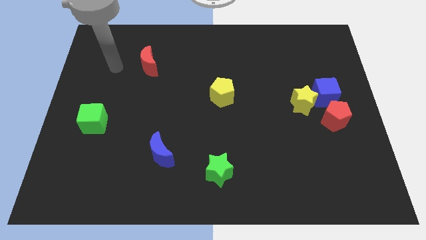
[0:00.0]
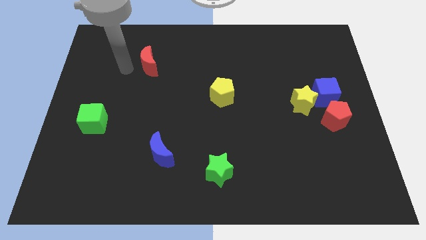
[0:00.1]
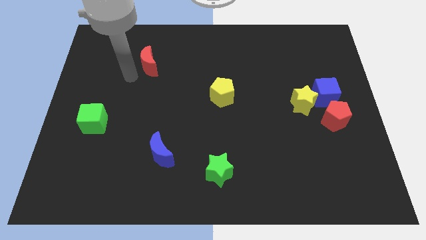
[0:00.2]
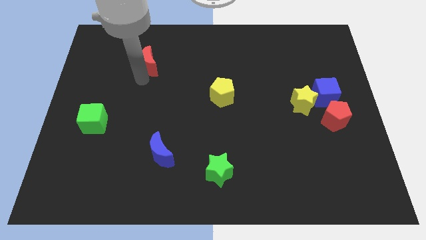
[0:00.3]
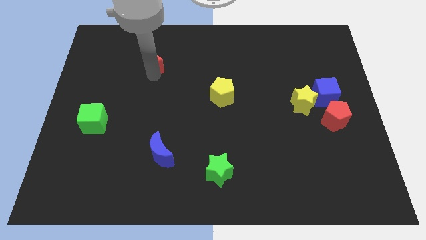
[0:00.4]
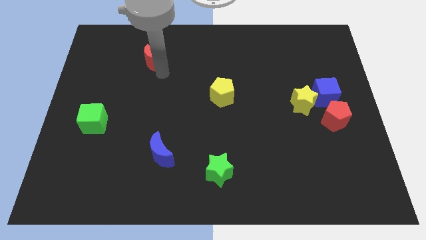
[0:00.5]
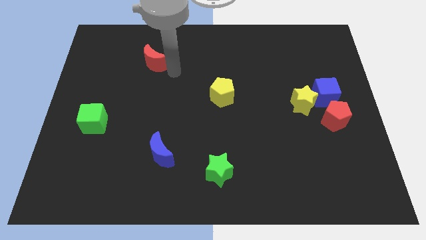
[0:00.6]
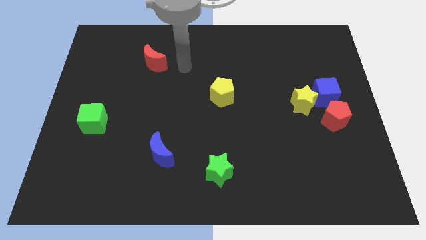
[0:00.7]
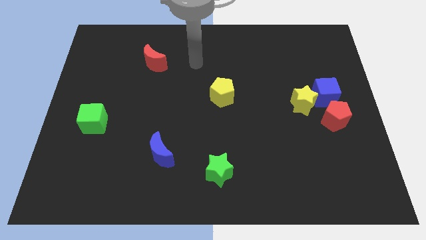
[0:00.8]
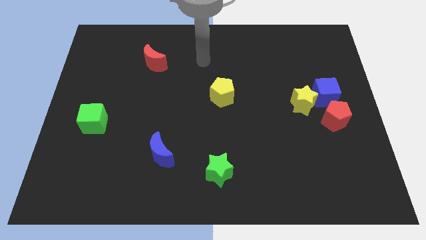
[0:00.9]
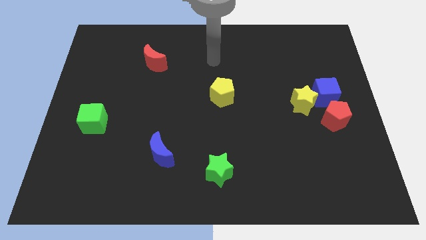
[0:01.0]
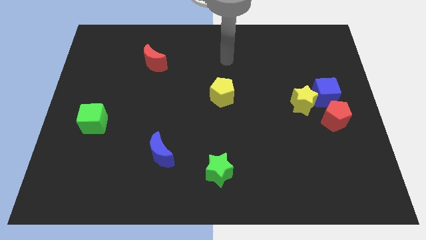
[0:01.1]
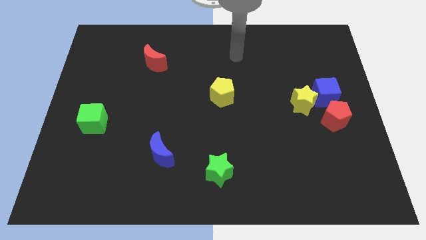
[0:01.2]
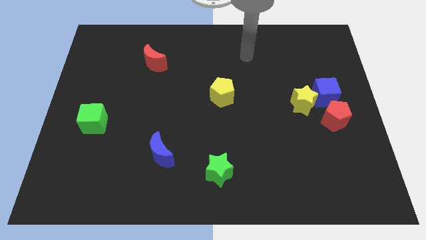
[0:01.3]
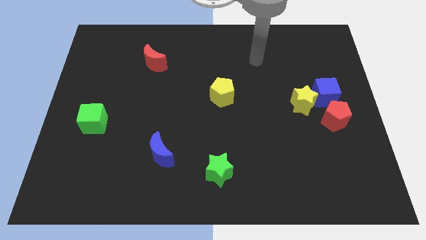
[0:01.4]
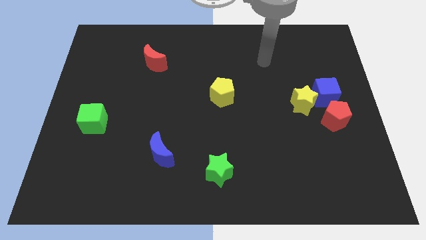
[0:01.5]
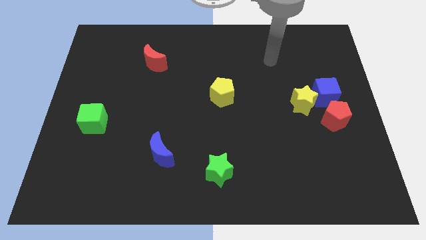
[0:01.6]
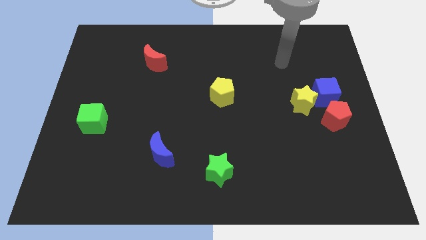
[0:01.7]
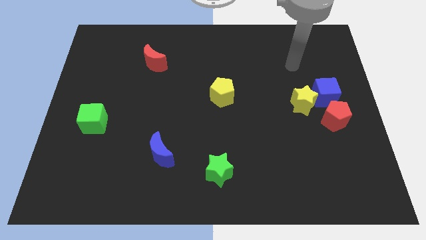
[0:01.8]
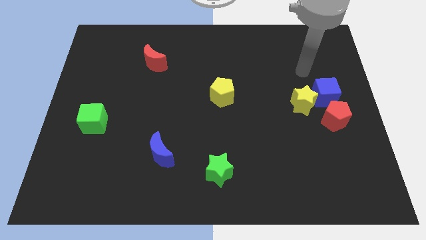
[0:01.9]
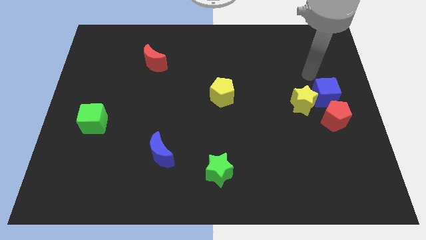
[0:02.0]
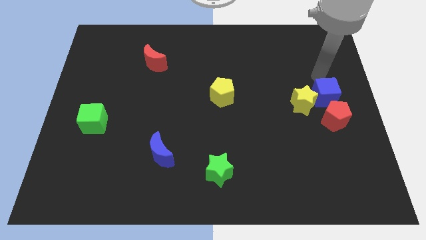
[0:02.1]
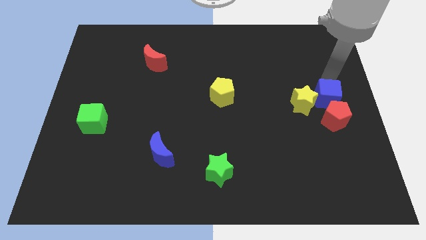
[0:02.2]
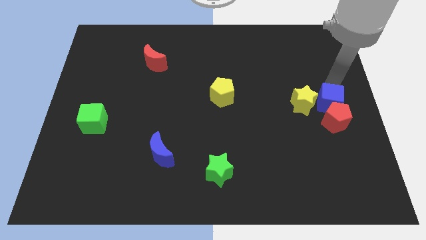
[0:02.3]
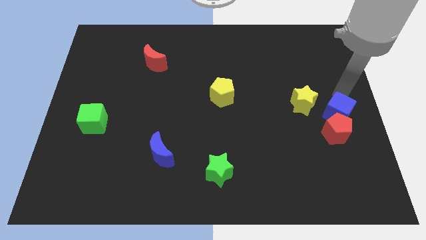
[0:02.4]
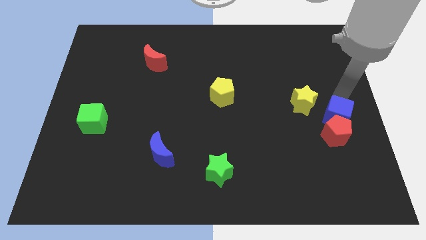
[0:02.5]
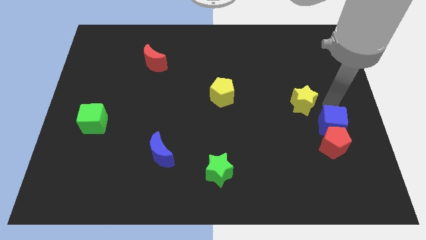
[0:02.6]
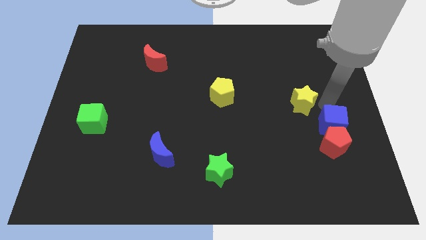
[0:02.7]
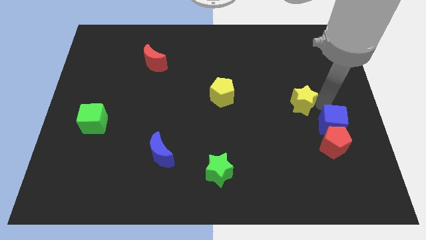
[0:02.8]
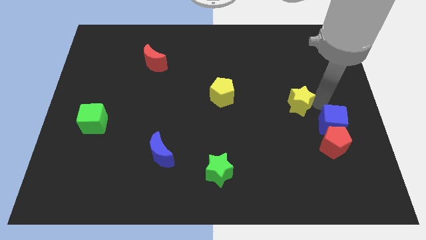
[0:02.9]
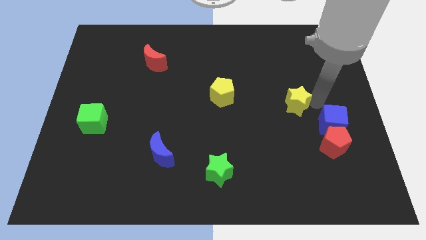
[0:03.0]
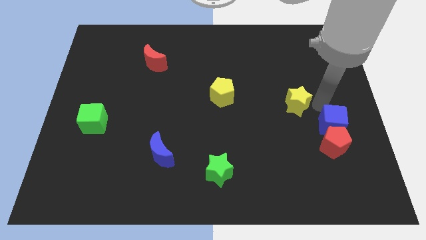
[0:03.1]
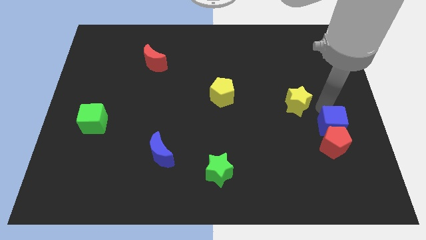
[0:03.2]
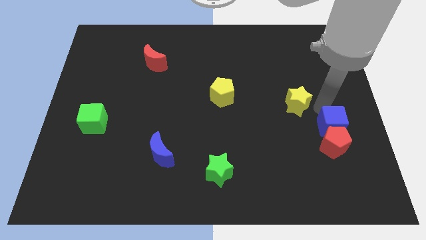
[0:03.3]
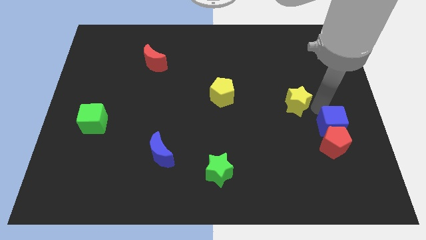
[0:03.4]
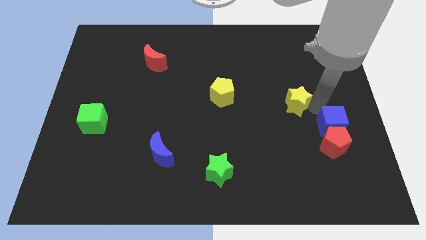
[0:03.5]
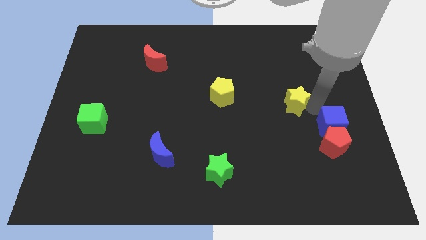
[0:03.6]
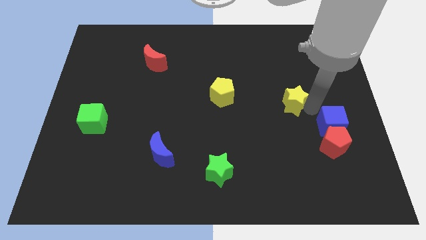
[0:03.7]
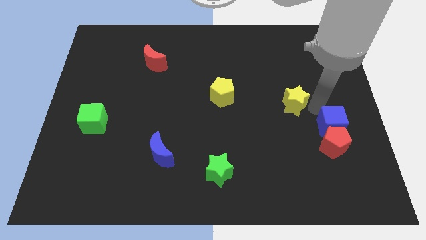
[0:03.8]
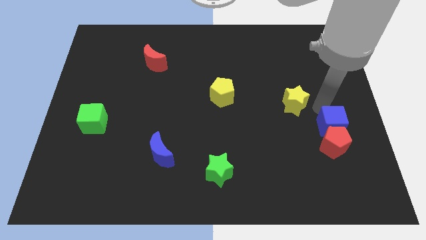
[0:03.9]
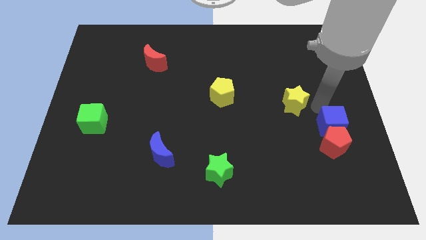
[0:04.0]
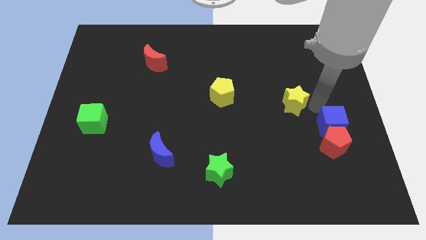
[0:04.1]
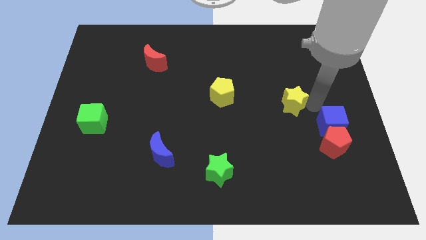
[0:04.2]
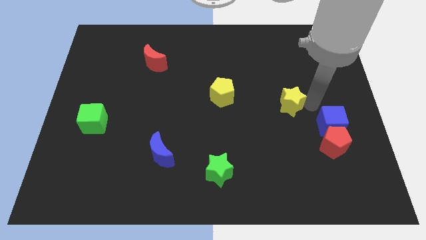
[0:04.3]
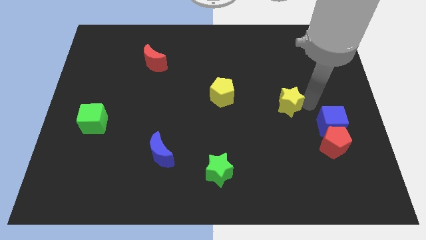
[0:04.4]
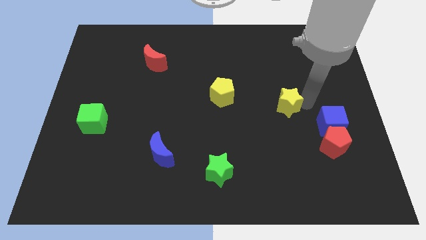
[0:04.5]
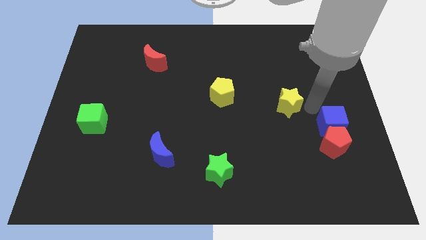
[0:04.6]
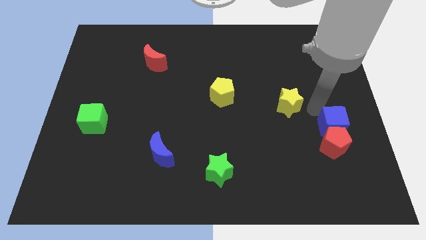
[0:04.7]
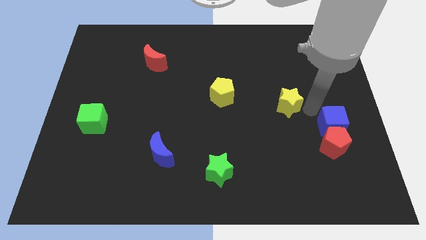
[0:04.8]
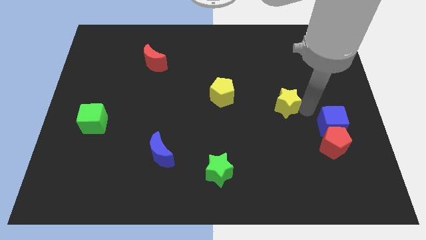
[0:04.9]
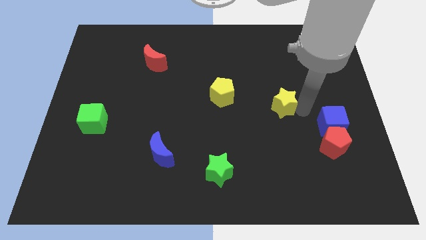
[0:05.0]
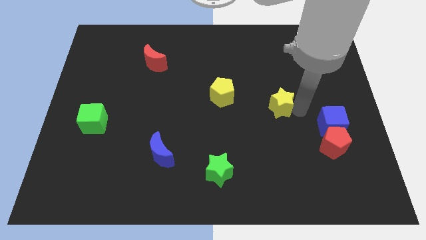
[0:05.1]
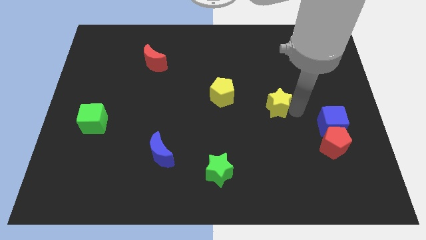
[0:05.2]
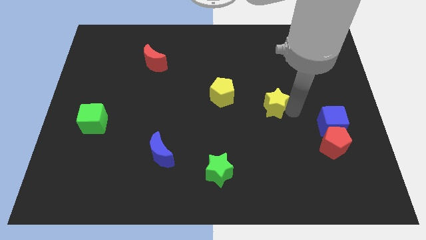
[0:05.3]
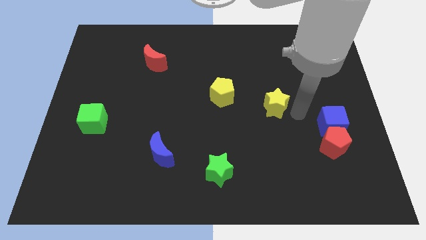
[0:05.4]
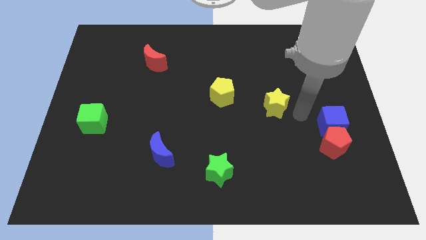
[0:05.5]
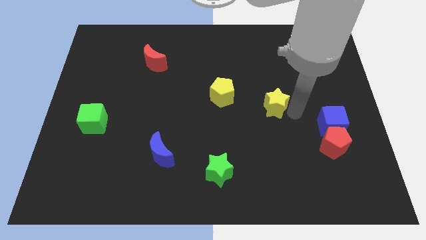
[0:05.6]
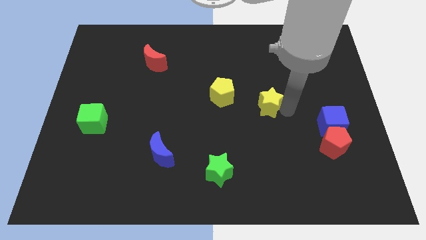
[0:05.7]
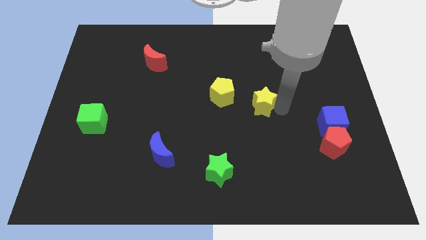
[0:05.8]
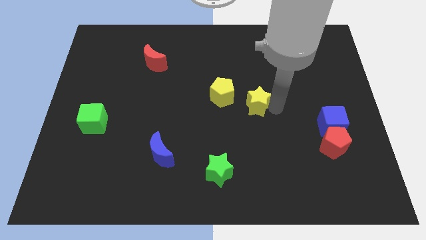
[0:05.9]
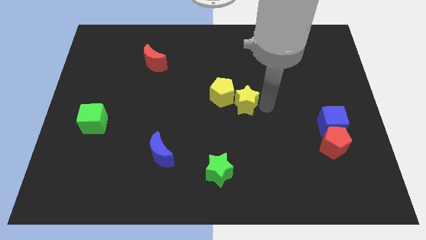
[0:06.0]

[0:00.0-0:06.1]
slide the yellow star next to the yellow pentagon
